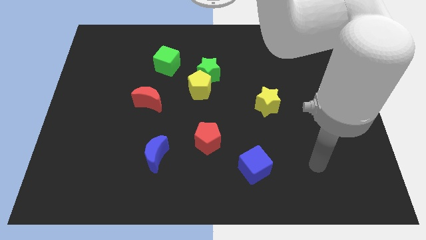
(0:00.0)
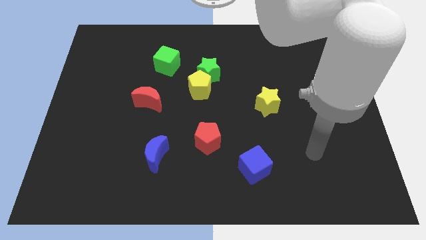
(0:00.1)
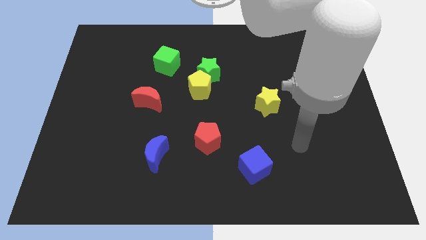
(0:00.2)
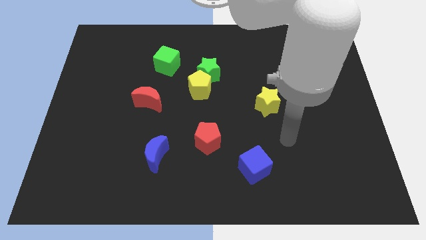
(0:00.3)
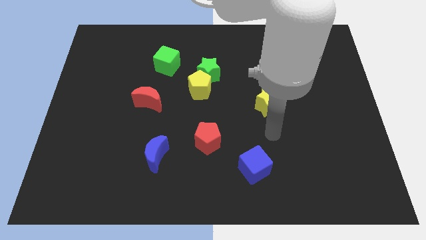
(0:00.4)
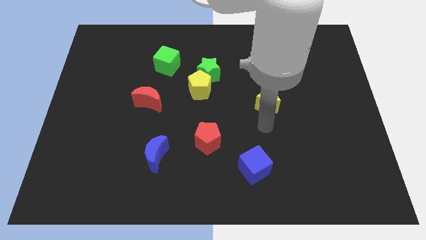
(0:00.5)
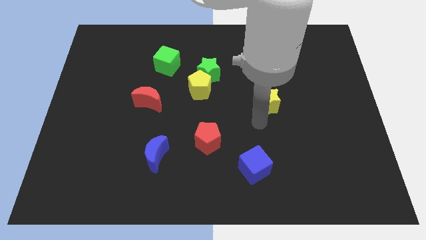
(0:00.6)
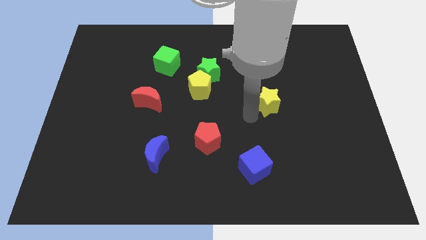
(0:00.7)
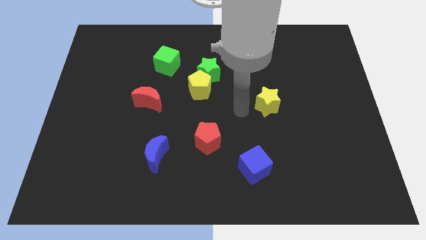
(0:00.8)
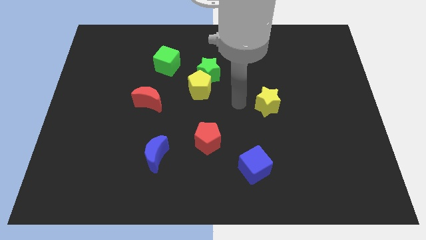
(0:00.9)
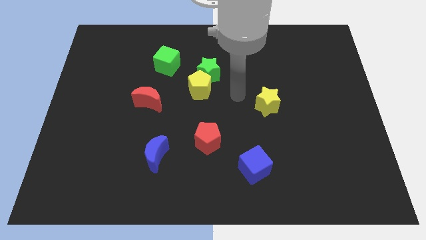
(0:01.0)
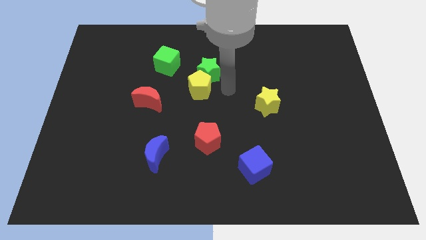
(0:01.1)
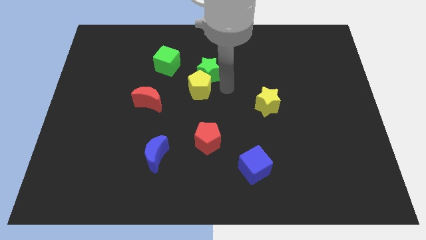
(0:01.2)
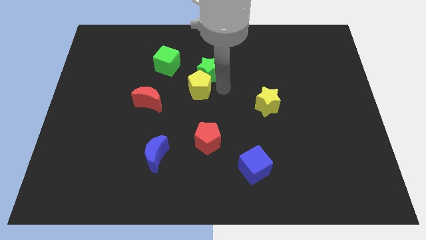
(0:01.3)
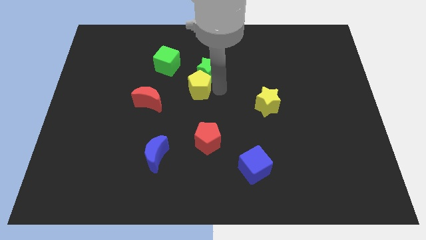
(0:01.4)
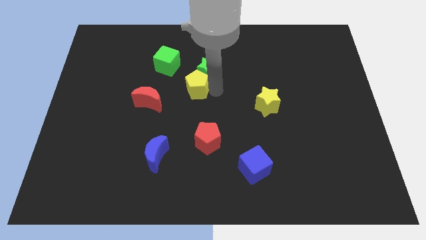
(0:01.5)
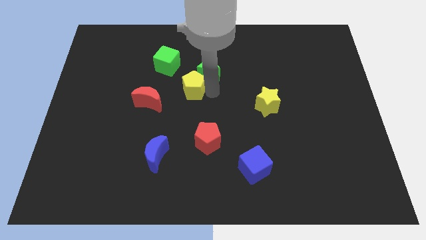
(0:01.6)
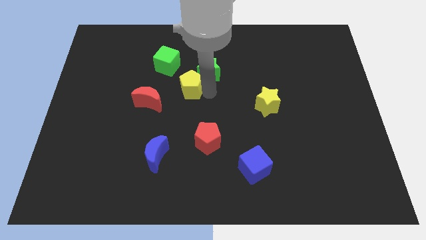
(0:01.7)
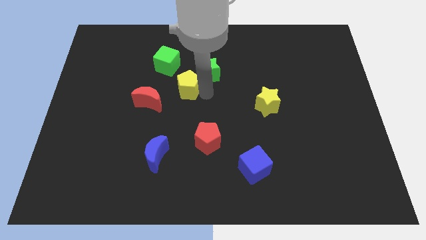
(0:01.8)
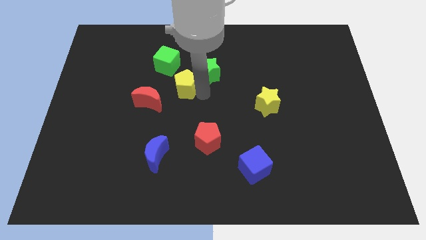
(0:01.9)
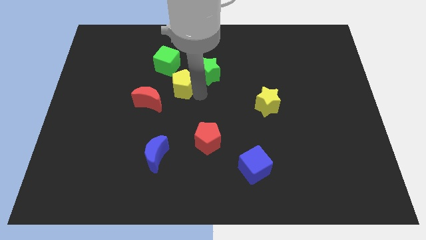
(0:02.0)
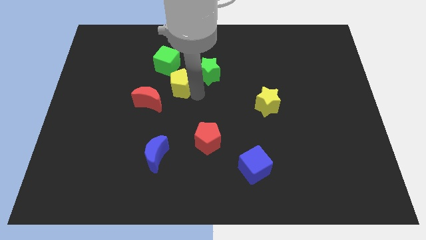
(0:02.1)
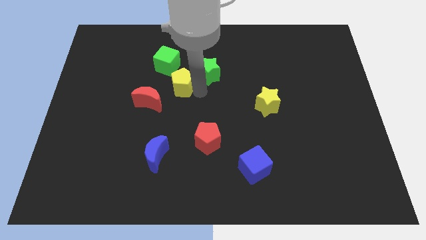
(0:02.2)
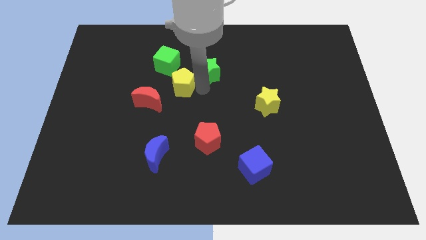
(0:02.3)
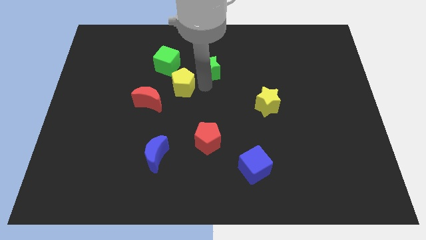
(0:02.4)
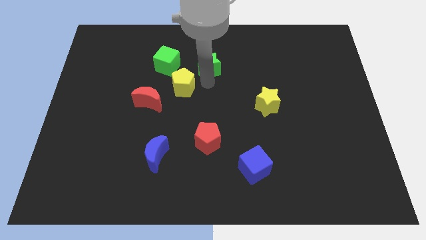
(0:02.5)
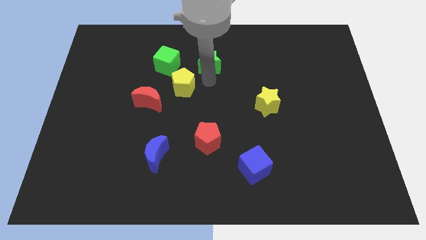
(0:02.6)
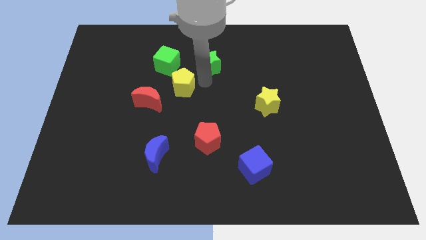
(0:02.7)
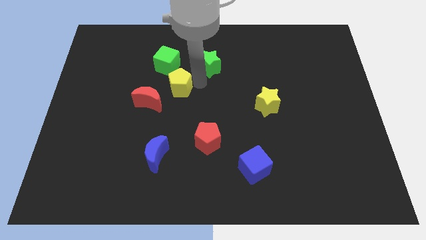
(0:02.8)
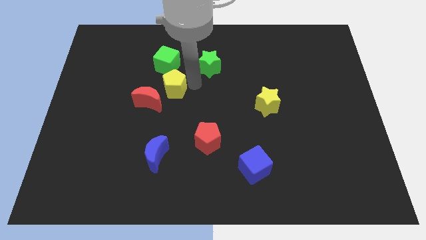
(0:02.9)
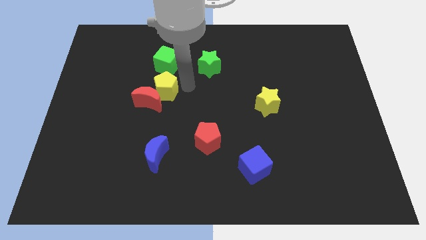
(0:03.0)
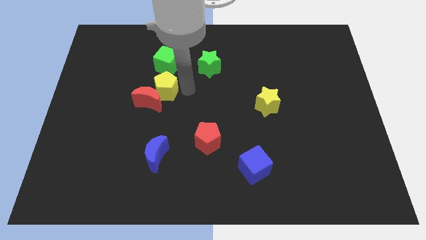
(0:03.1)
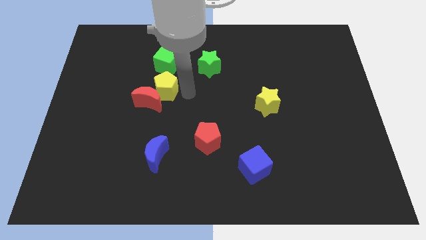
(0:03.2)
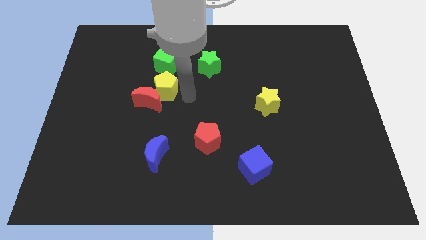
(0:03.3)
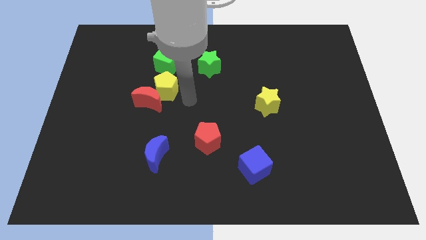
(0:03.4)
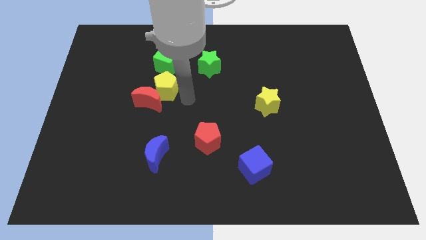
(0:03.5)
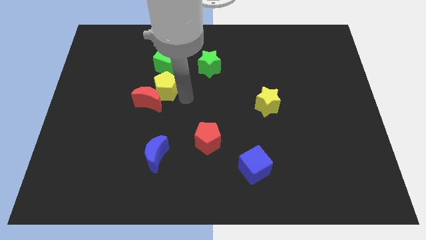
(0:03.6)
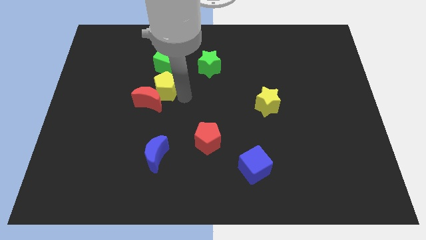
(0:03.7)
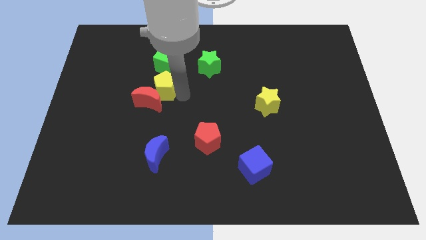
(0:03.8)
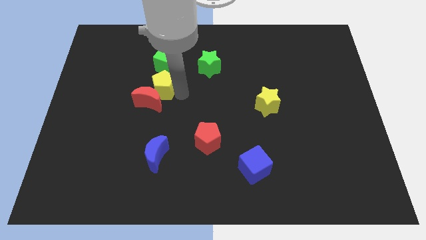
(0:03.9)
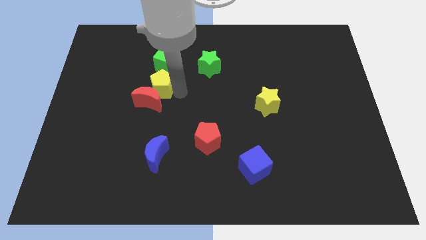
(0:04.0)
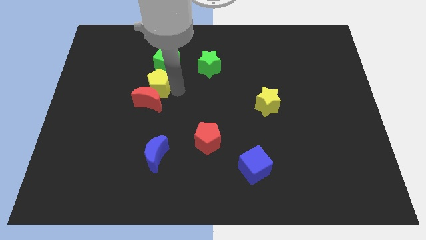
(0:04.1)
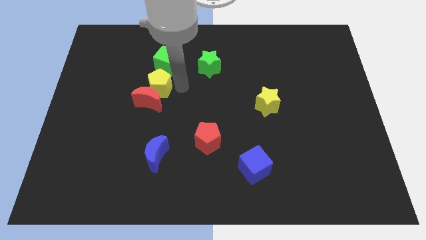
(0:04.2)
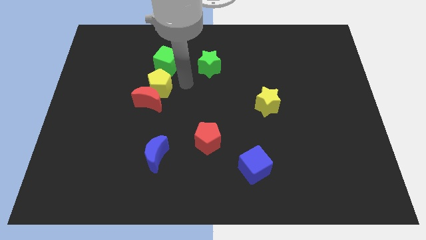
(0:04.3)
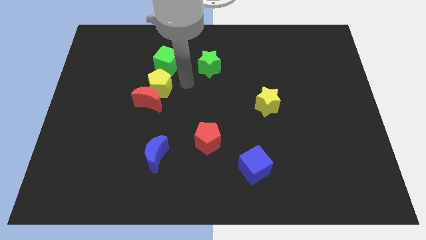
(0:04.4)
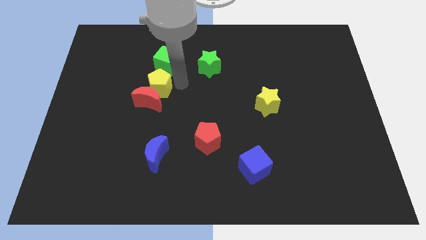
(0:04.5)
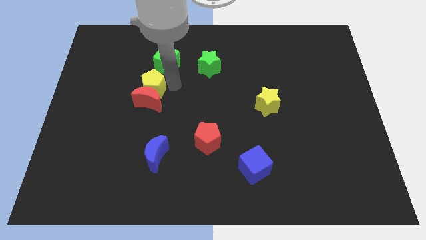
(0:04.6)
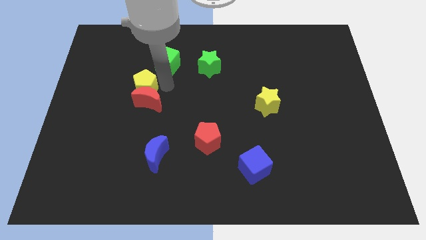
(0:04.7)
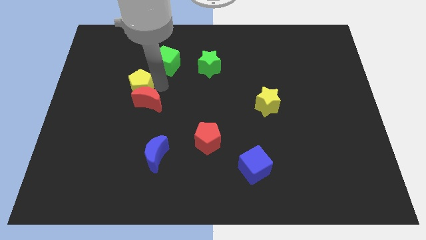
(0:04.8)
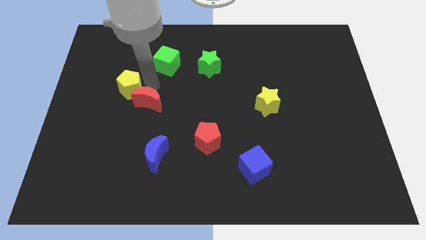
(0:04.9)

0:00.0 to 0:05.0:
move the yellow pentagon to the left of the red moon

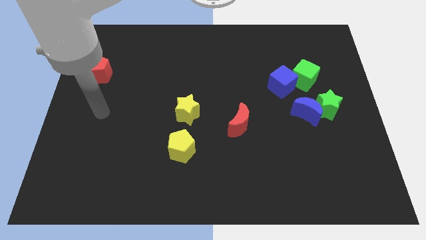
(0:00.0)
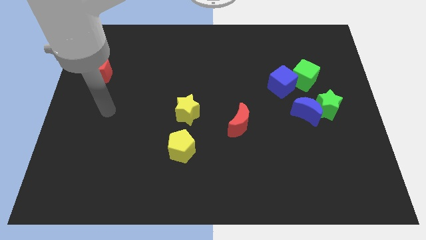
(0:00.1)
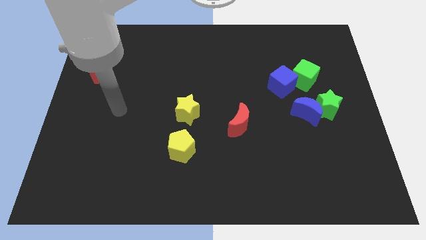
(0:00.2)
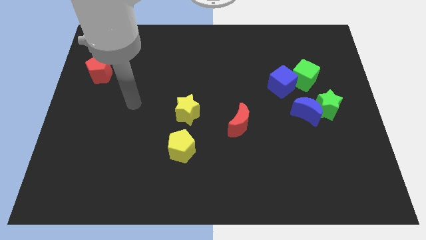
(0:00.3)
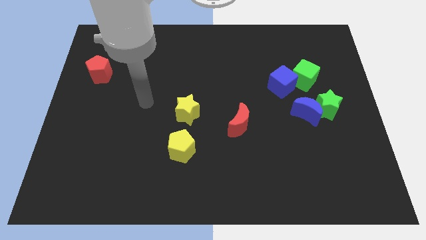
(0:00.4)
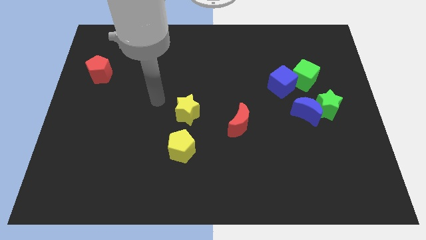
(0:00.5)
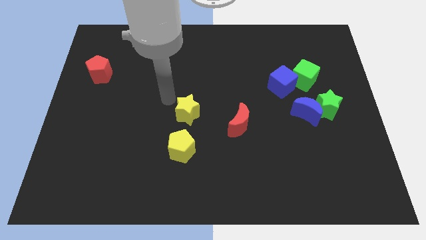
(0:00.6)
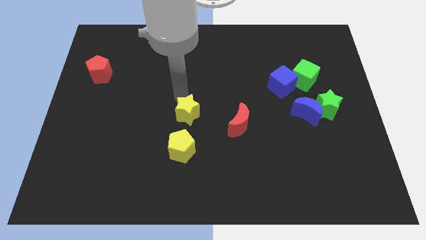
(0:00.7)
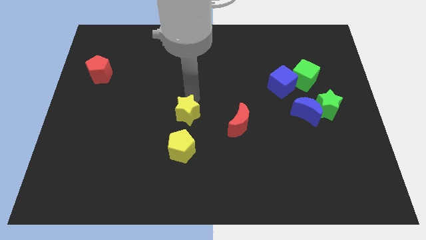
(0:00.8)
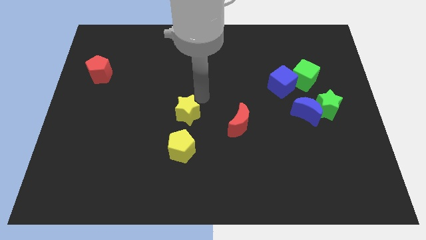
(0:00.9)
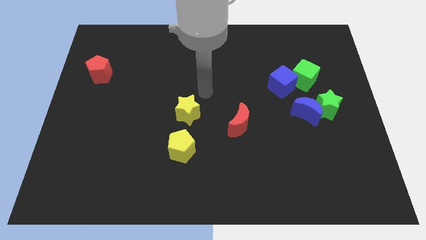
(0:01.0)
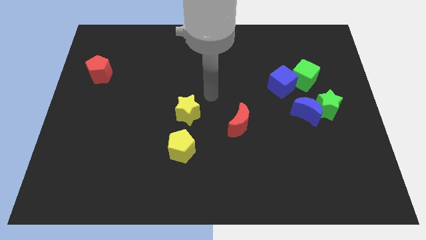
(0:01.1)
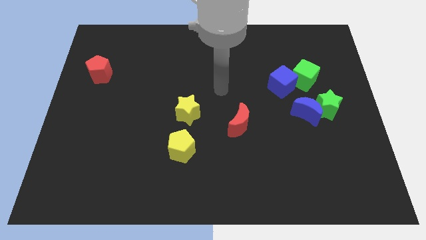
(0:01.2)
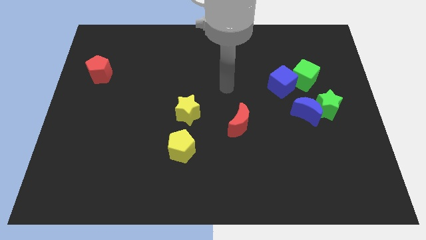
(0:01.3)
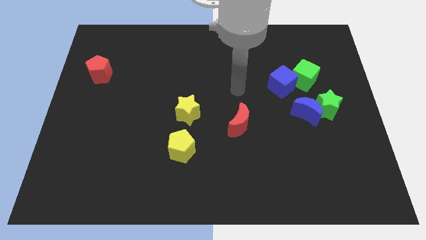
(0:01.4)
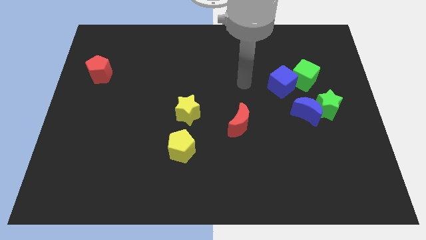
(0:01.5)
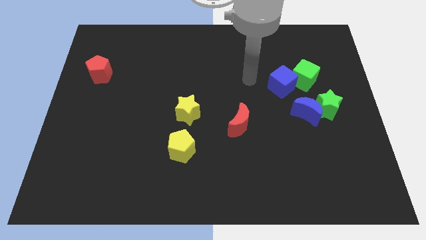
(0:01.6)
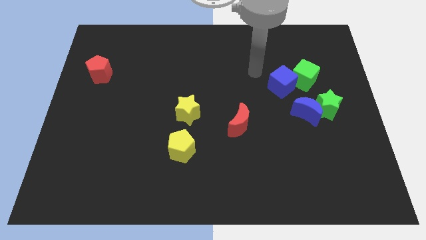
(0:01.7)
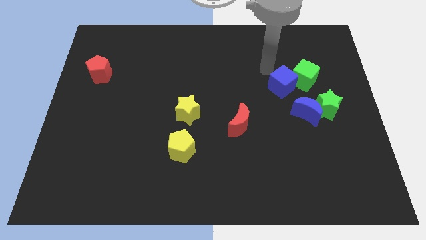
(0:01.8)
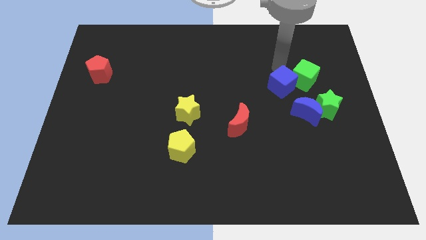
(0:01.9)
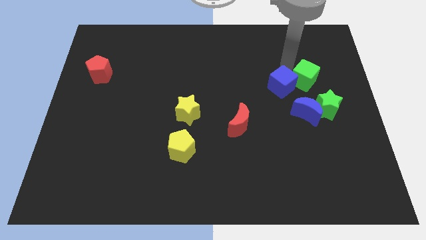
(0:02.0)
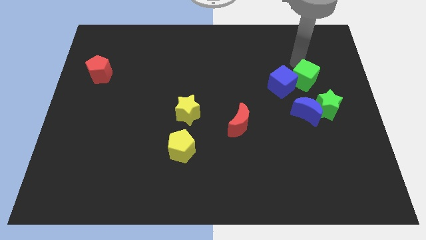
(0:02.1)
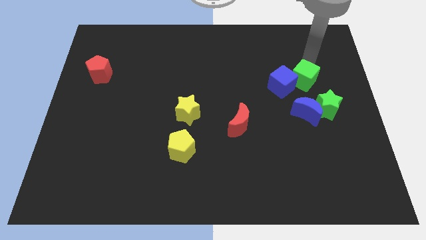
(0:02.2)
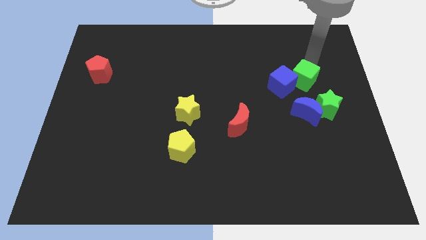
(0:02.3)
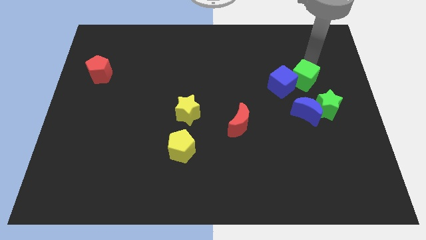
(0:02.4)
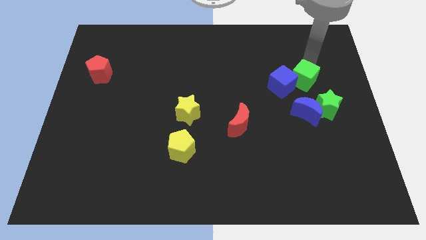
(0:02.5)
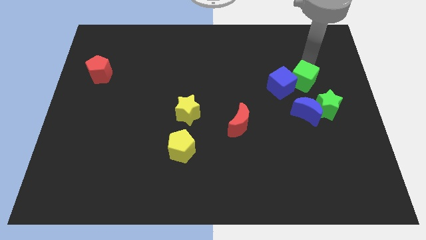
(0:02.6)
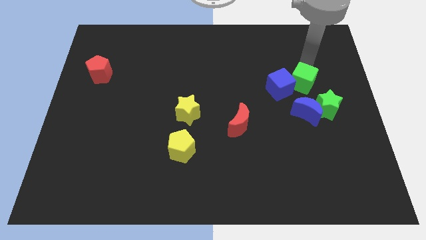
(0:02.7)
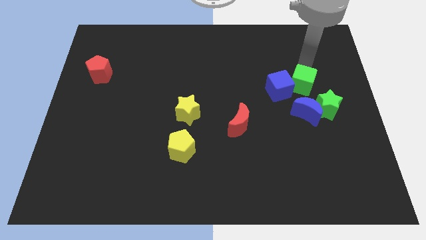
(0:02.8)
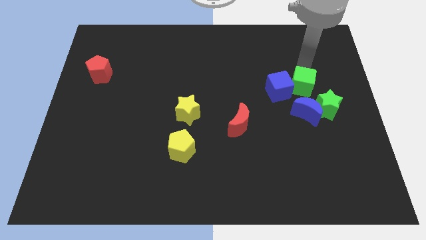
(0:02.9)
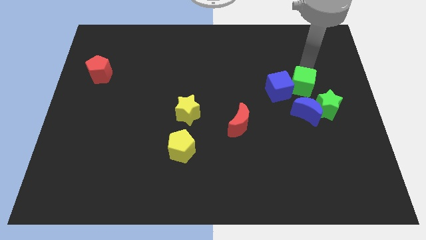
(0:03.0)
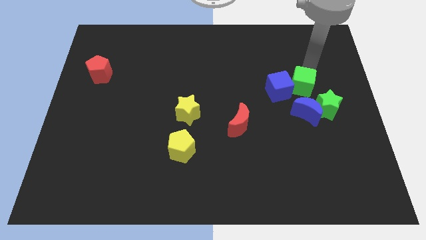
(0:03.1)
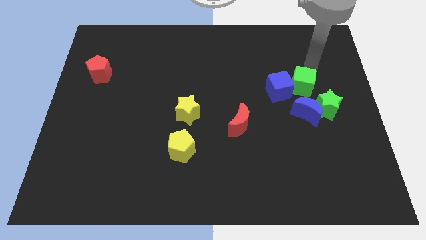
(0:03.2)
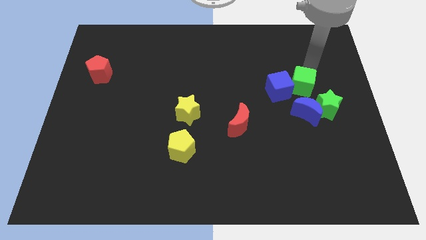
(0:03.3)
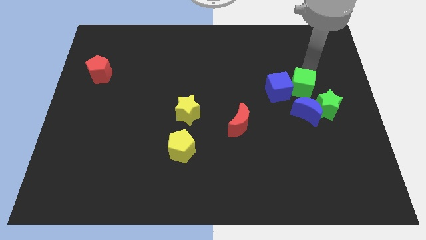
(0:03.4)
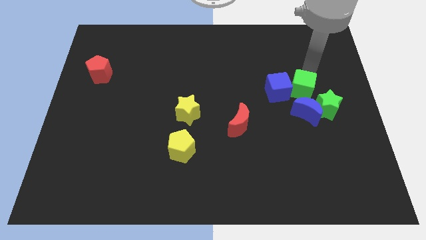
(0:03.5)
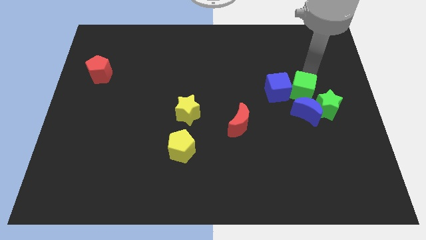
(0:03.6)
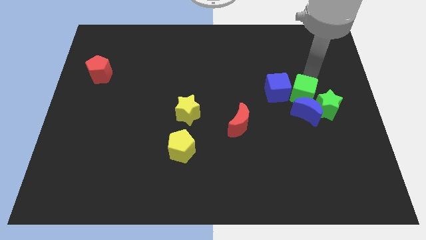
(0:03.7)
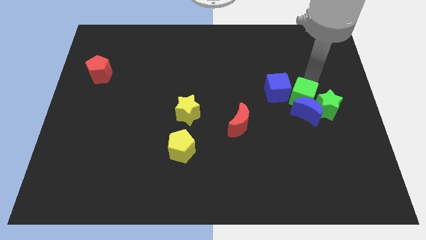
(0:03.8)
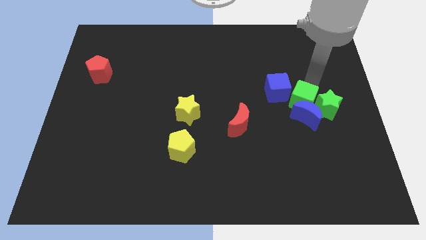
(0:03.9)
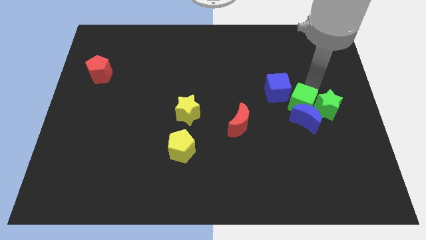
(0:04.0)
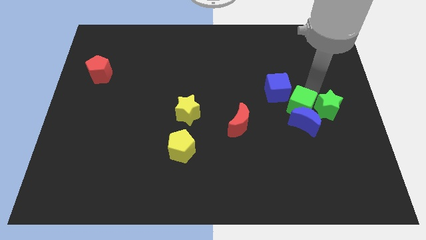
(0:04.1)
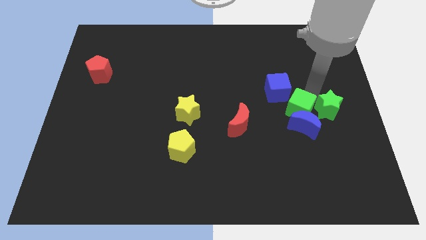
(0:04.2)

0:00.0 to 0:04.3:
push the green cube to the bottom side of the blue cube
